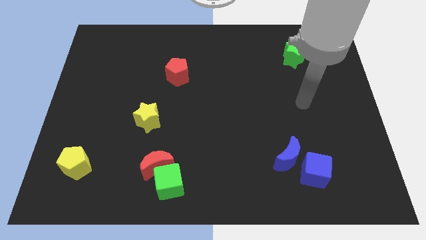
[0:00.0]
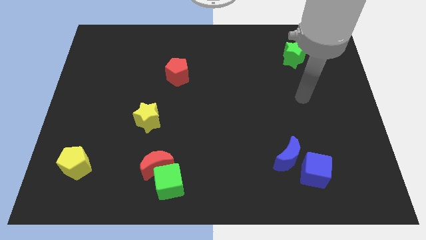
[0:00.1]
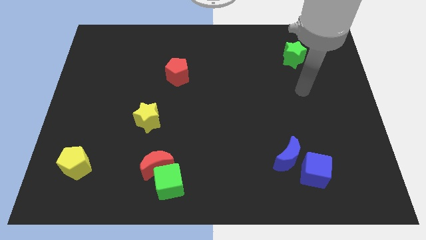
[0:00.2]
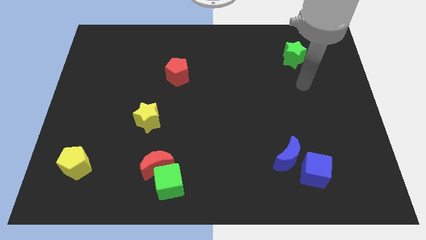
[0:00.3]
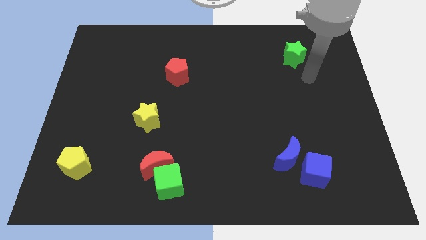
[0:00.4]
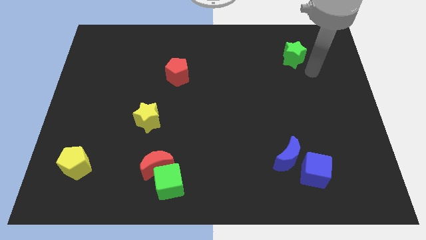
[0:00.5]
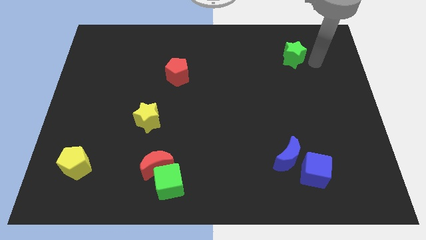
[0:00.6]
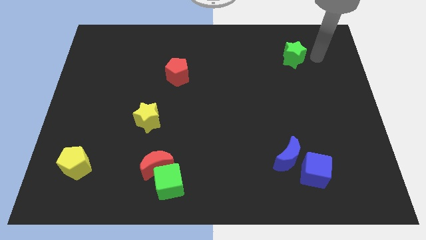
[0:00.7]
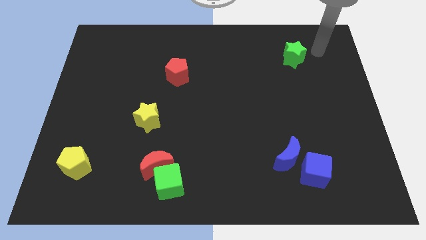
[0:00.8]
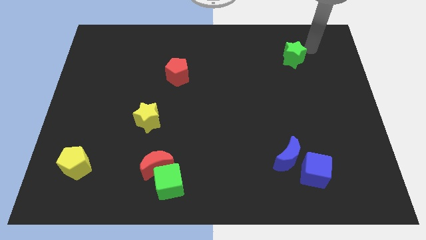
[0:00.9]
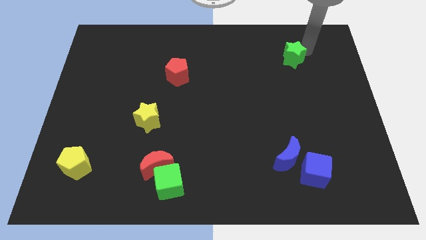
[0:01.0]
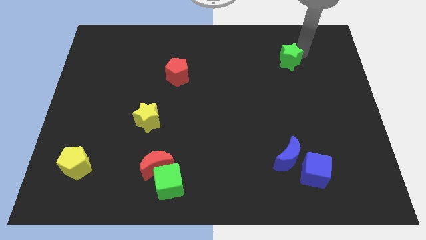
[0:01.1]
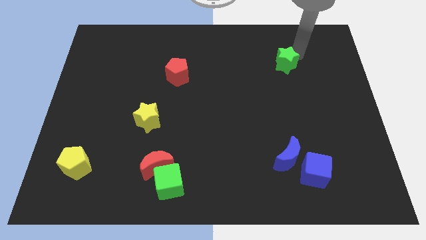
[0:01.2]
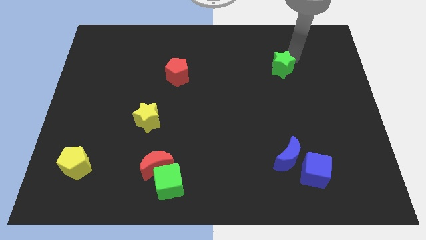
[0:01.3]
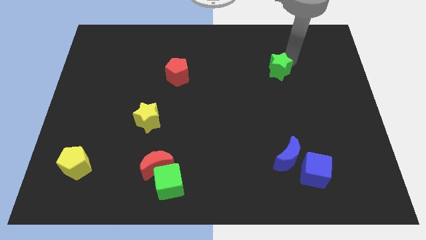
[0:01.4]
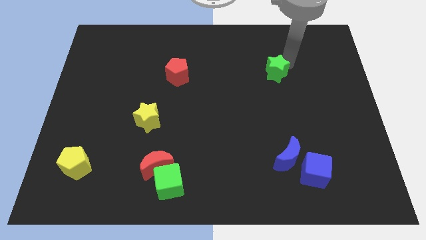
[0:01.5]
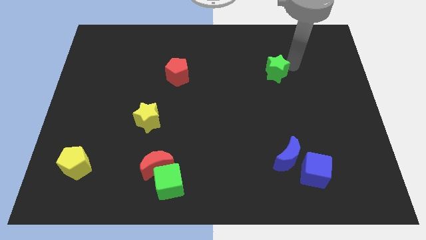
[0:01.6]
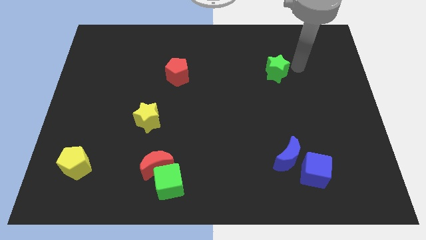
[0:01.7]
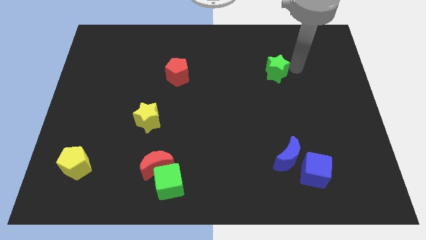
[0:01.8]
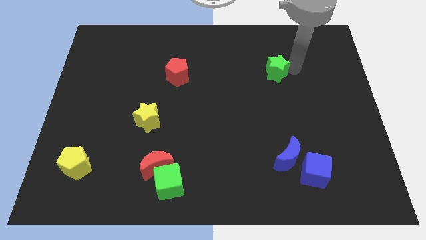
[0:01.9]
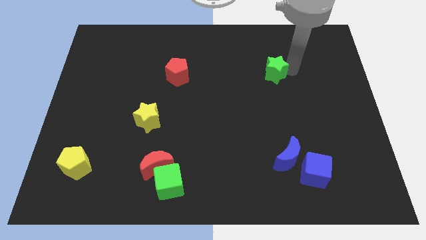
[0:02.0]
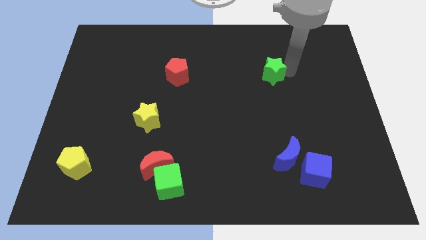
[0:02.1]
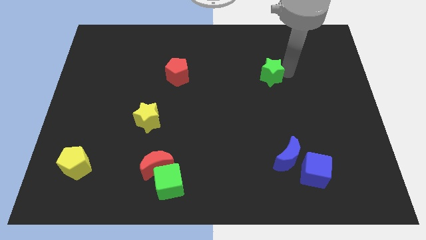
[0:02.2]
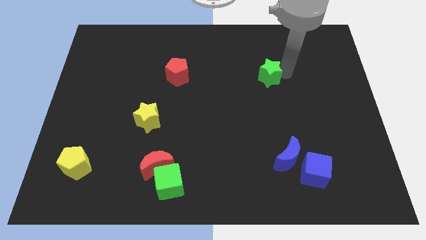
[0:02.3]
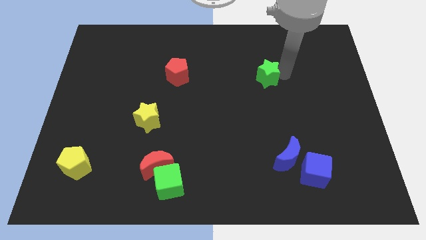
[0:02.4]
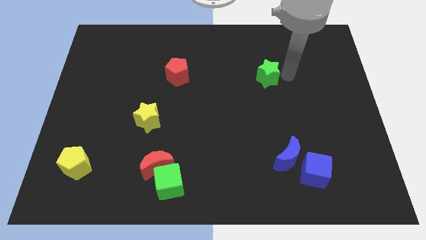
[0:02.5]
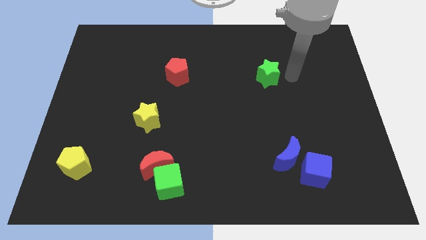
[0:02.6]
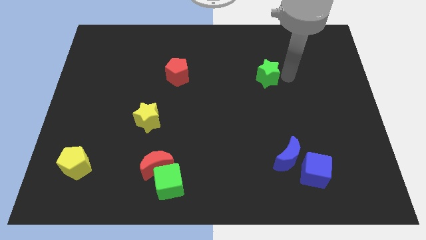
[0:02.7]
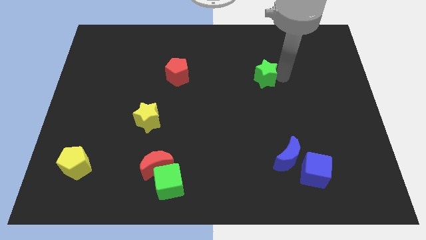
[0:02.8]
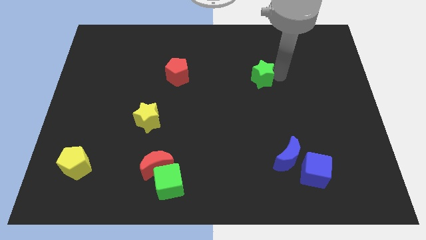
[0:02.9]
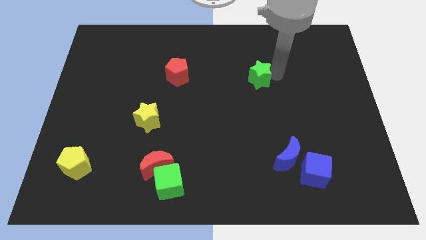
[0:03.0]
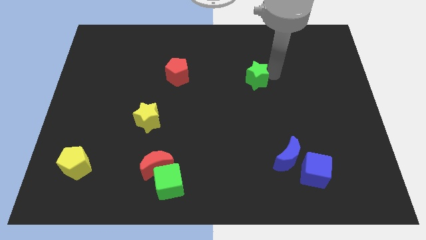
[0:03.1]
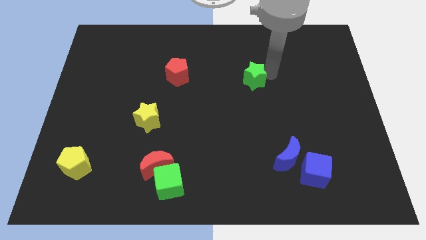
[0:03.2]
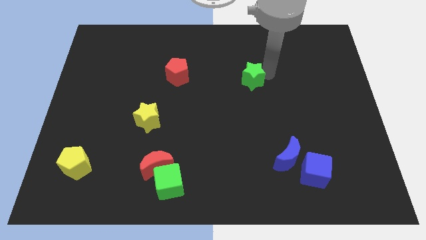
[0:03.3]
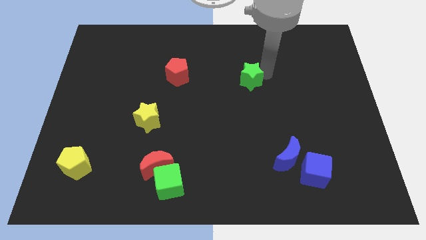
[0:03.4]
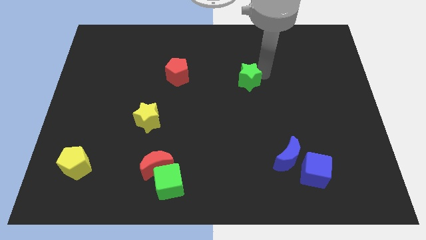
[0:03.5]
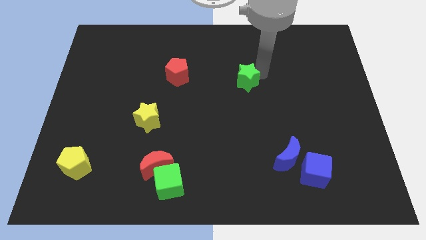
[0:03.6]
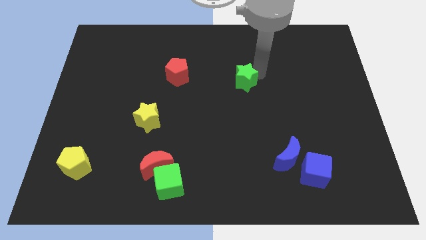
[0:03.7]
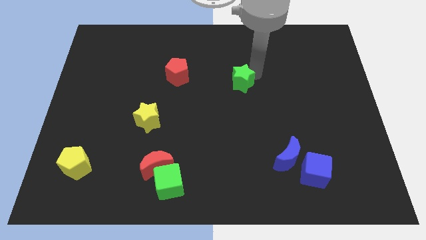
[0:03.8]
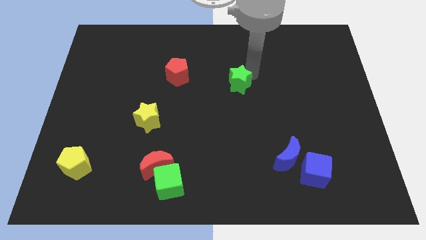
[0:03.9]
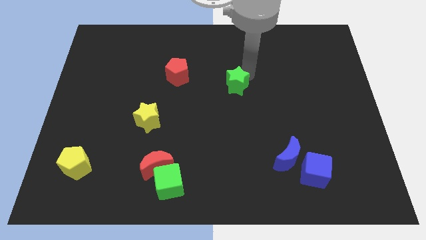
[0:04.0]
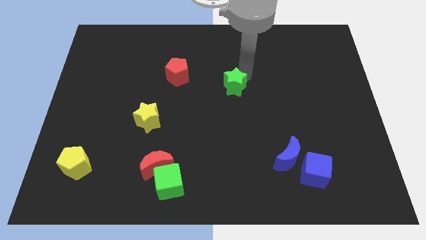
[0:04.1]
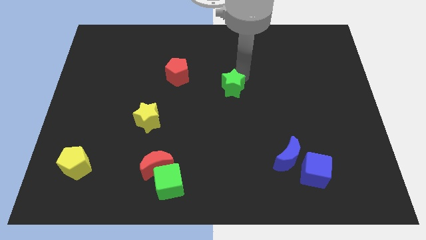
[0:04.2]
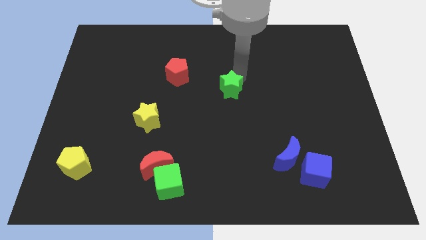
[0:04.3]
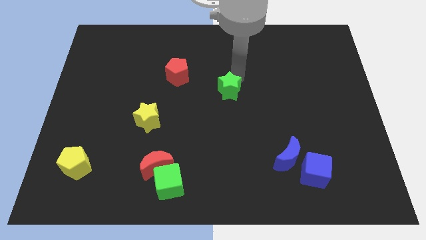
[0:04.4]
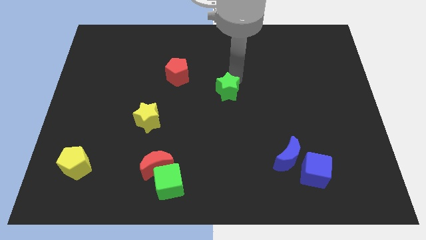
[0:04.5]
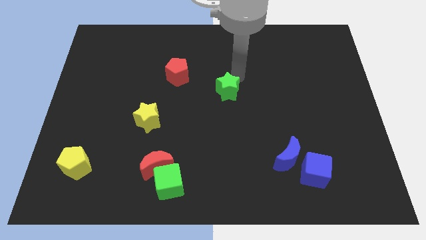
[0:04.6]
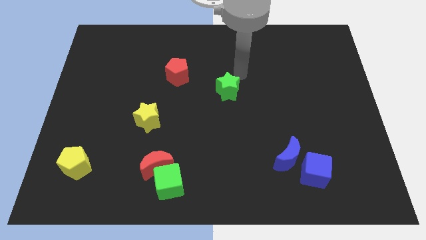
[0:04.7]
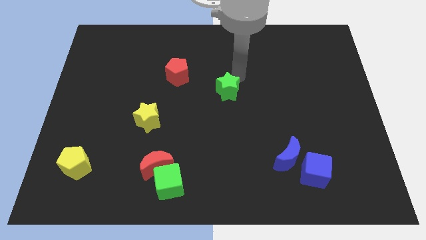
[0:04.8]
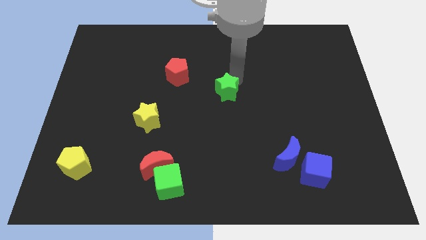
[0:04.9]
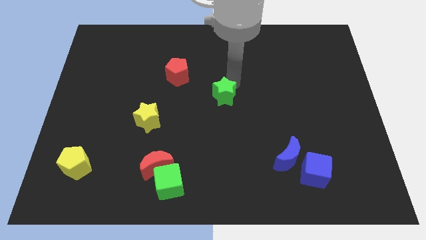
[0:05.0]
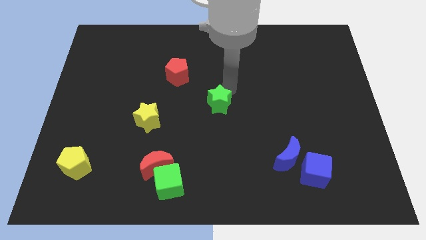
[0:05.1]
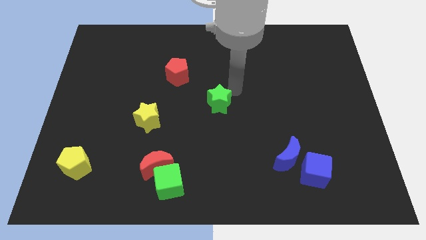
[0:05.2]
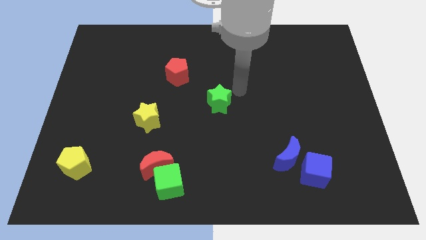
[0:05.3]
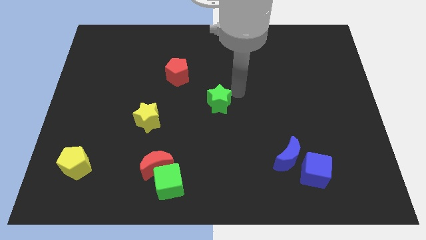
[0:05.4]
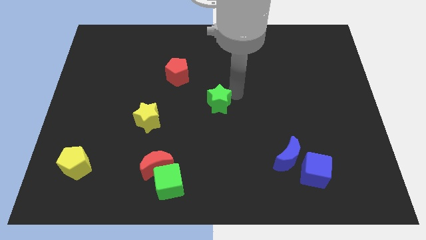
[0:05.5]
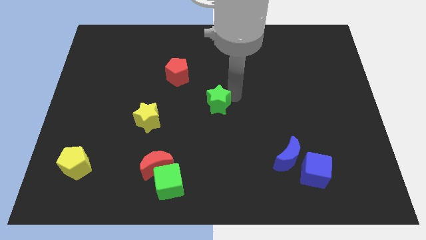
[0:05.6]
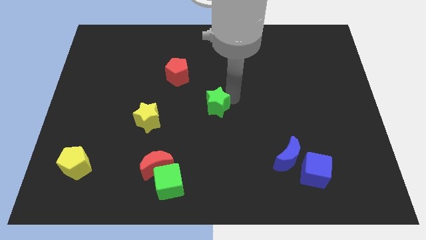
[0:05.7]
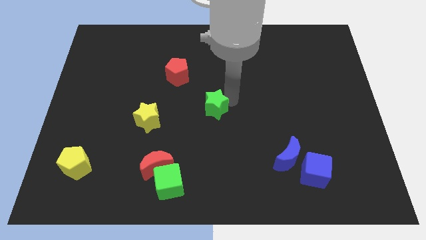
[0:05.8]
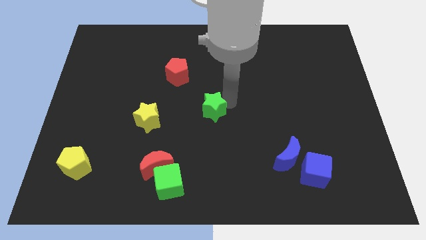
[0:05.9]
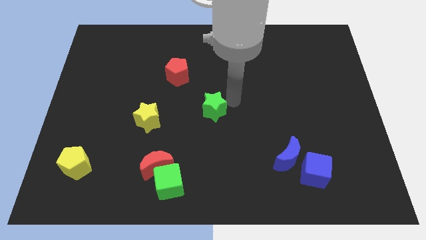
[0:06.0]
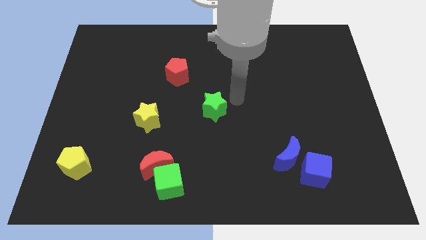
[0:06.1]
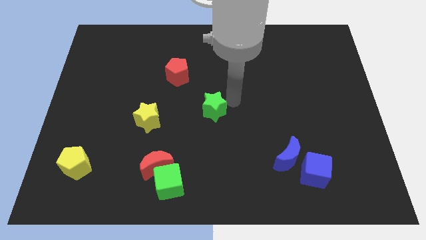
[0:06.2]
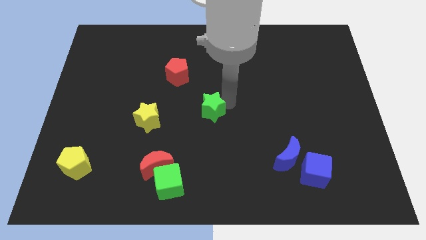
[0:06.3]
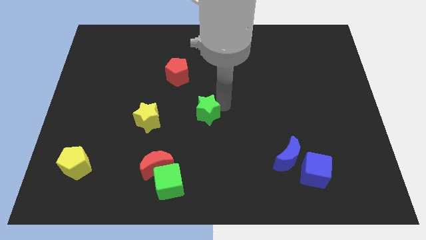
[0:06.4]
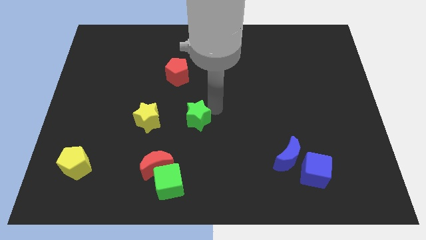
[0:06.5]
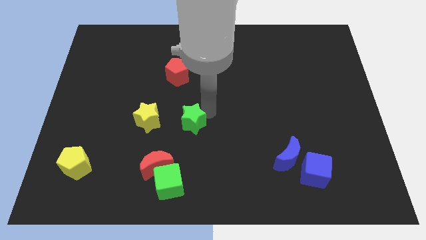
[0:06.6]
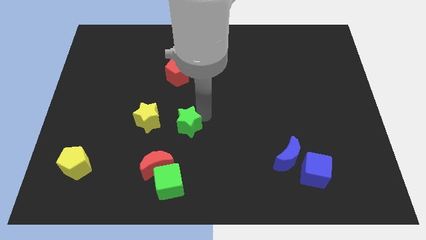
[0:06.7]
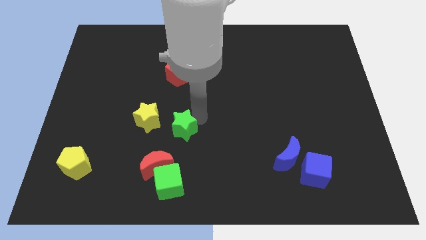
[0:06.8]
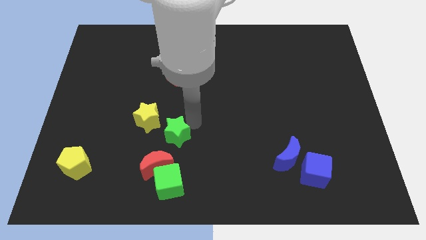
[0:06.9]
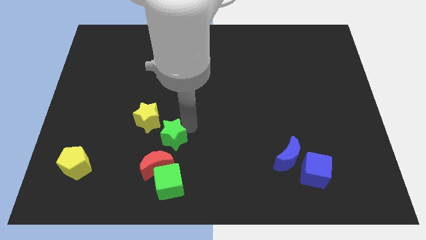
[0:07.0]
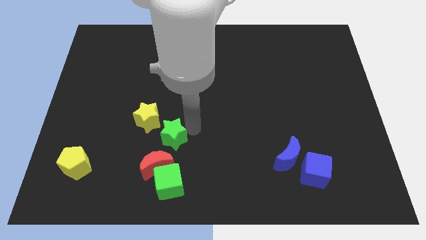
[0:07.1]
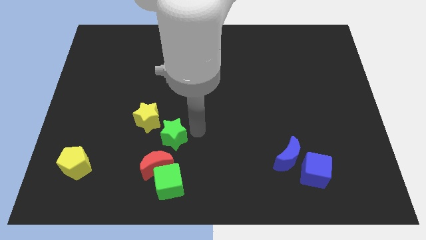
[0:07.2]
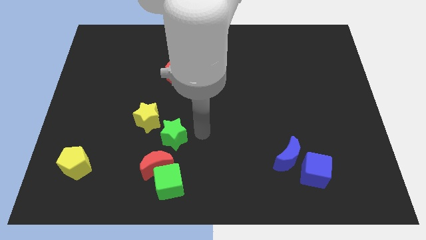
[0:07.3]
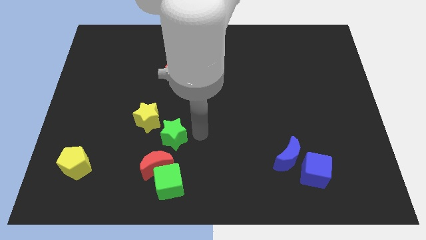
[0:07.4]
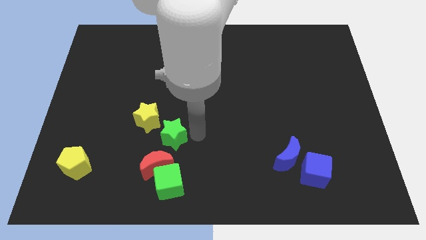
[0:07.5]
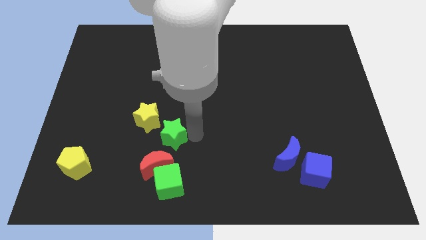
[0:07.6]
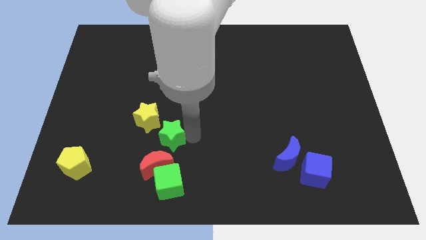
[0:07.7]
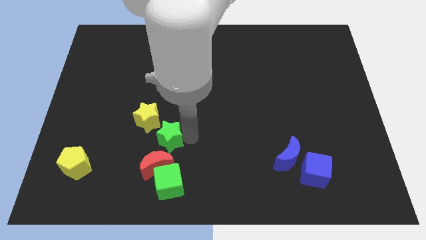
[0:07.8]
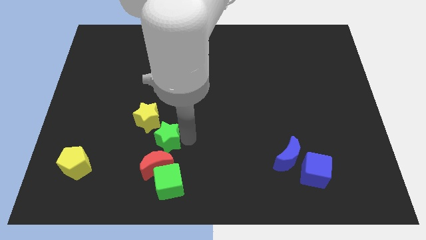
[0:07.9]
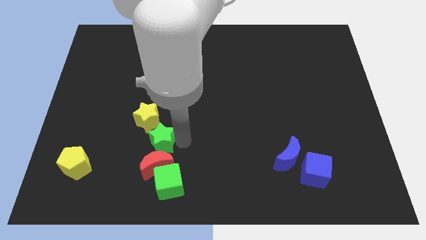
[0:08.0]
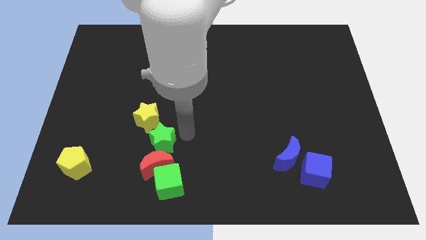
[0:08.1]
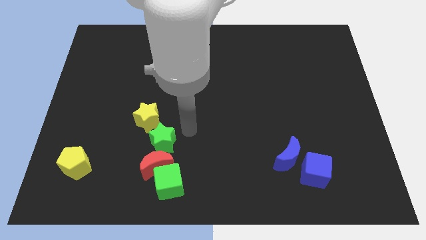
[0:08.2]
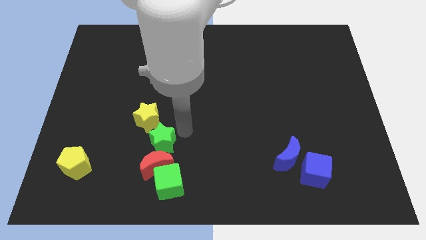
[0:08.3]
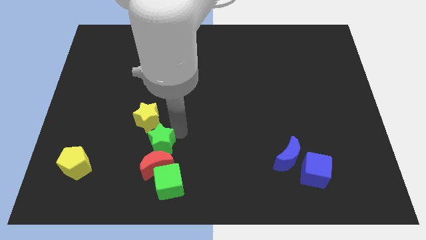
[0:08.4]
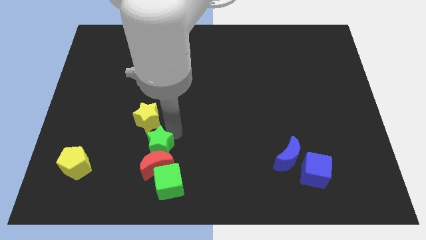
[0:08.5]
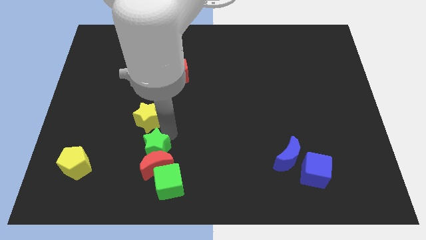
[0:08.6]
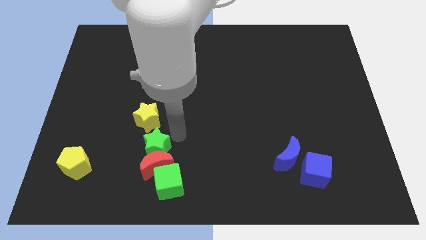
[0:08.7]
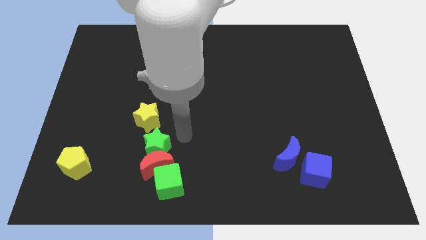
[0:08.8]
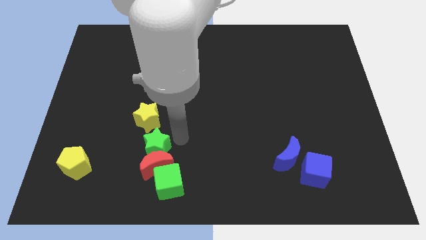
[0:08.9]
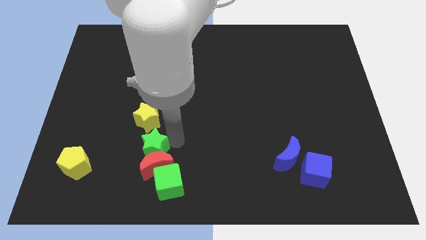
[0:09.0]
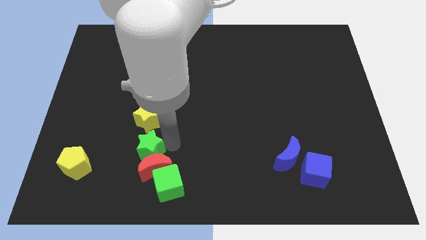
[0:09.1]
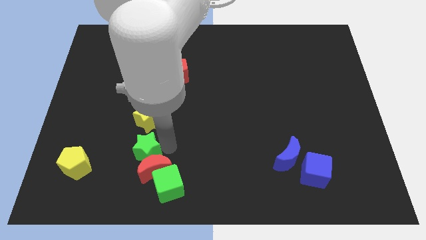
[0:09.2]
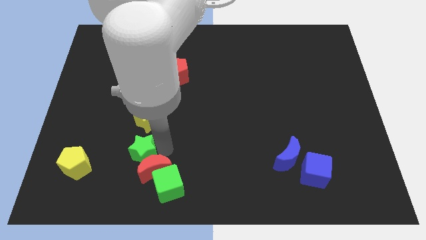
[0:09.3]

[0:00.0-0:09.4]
move the green star left of the red moon
